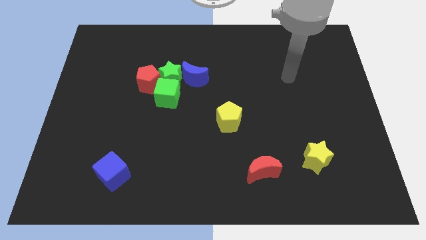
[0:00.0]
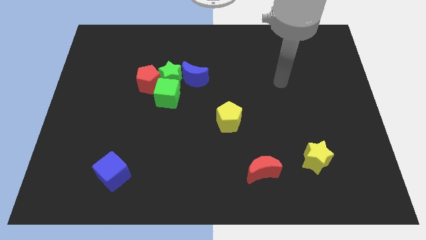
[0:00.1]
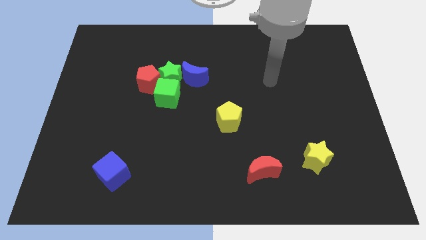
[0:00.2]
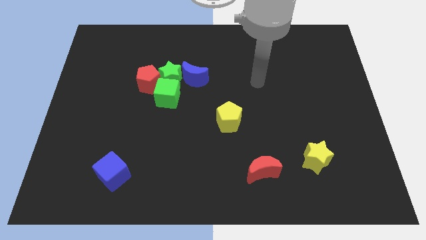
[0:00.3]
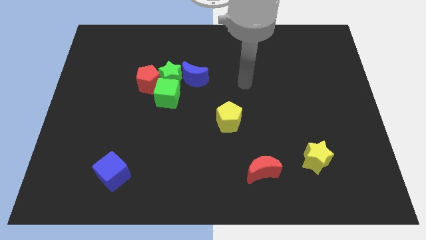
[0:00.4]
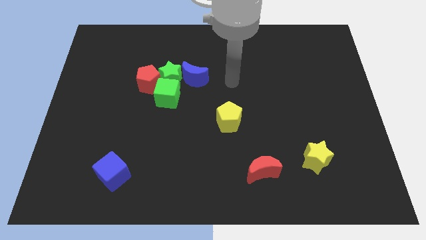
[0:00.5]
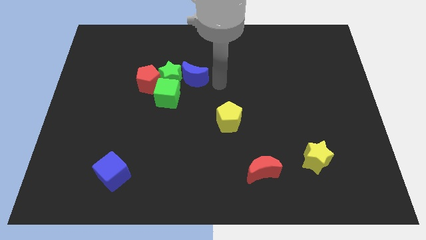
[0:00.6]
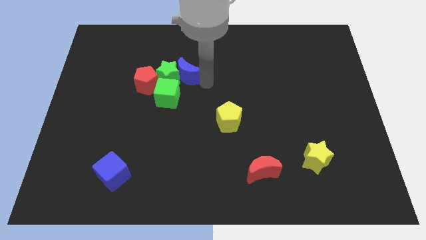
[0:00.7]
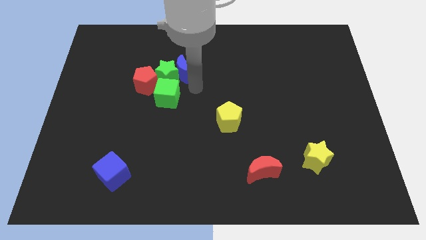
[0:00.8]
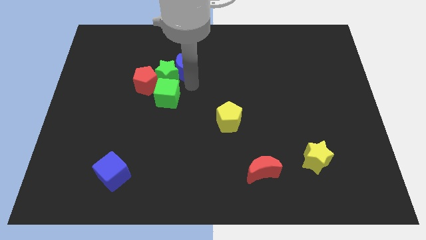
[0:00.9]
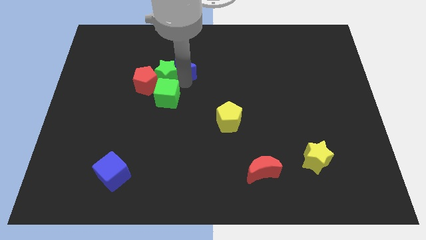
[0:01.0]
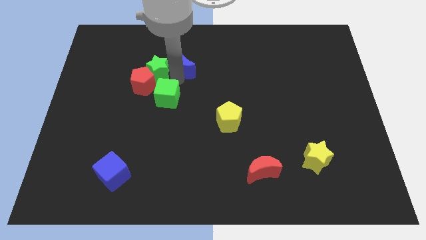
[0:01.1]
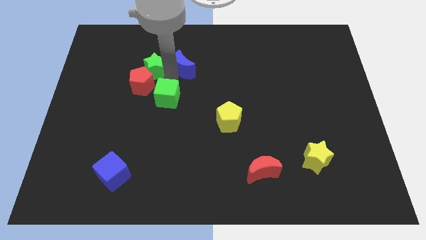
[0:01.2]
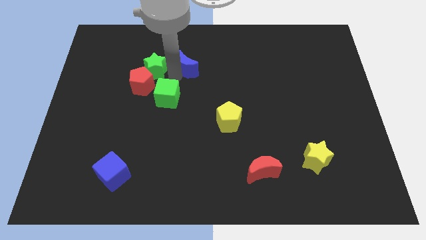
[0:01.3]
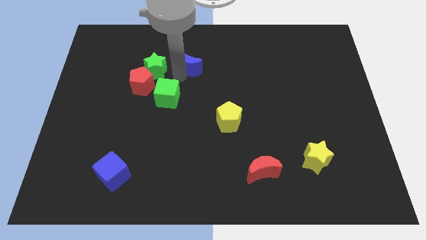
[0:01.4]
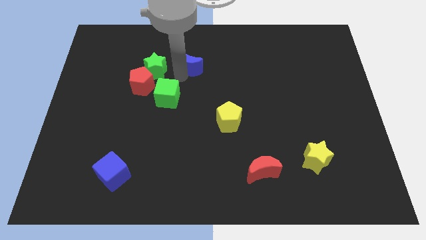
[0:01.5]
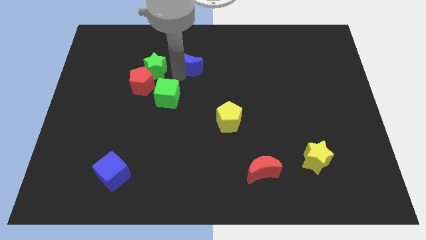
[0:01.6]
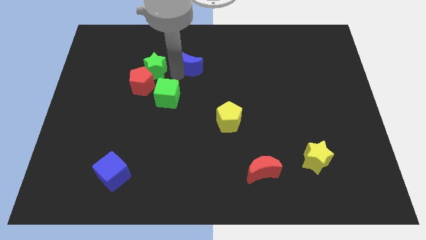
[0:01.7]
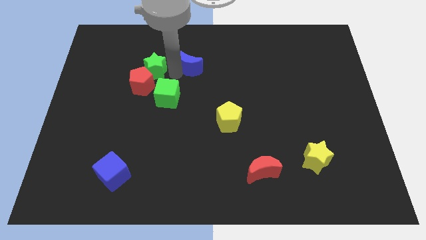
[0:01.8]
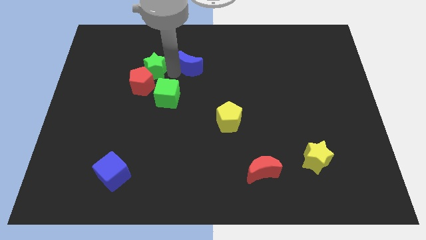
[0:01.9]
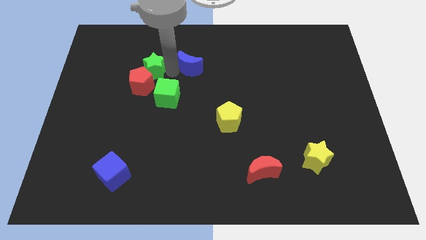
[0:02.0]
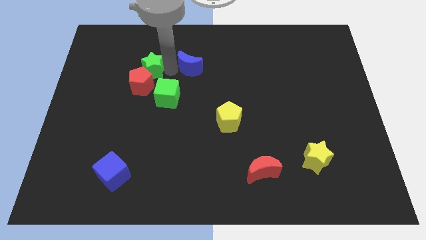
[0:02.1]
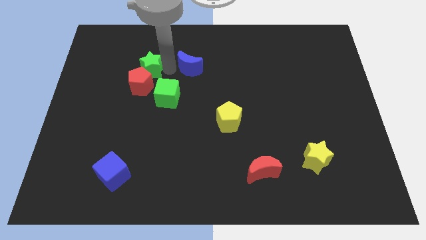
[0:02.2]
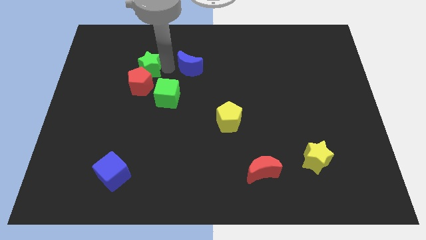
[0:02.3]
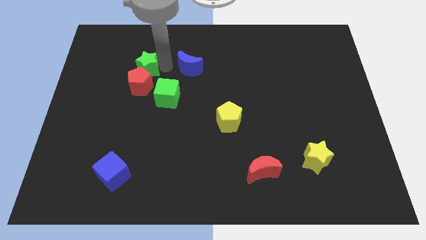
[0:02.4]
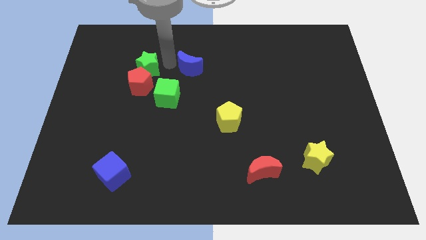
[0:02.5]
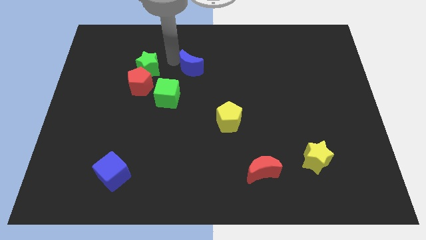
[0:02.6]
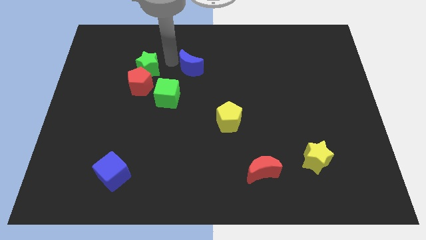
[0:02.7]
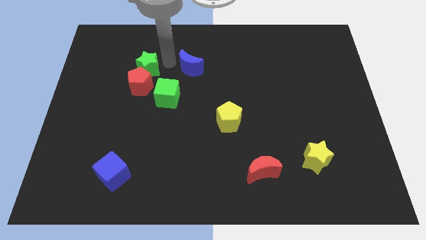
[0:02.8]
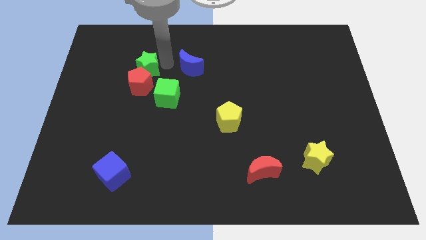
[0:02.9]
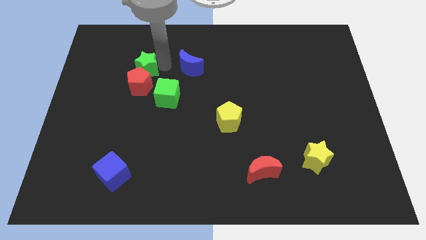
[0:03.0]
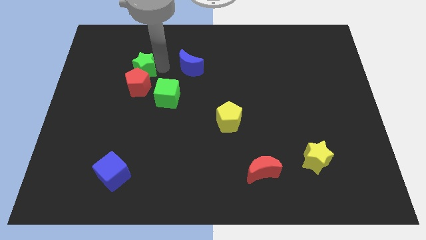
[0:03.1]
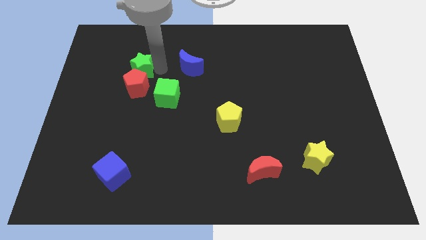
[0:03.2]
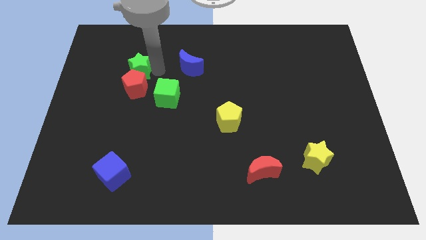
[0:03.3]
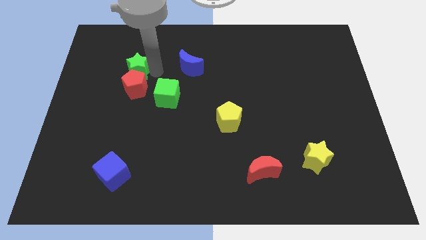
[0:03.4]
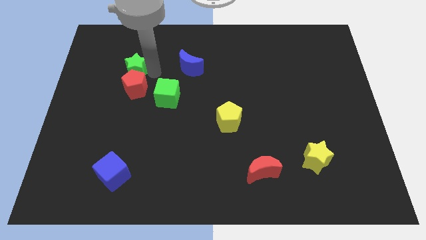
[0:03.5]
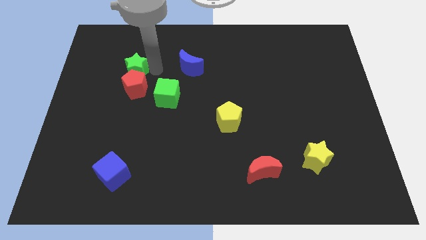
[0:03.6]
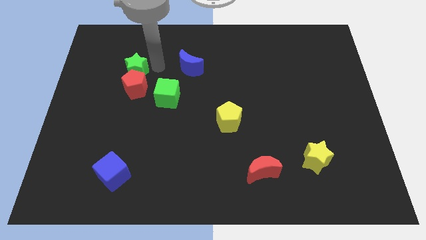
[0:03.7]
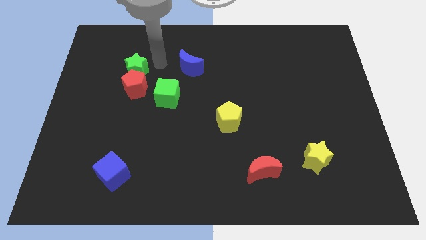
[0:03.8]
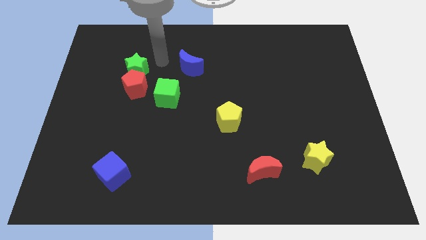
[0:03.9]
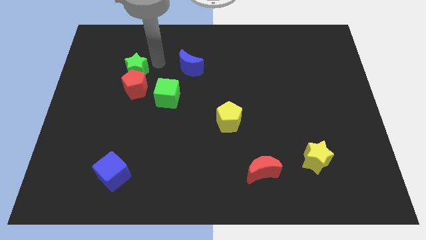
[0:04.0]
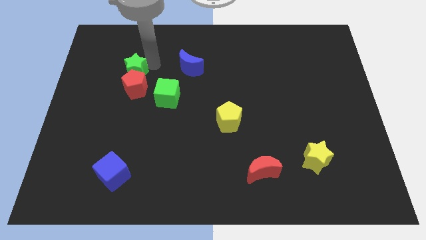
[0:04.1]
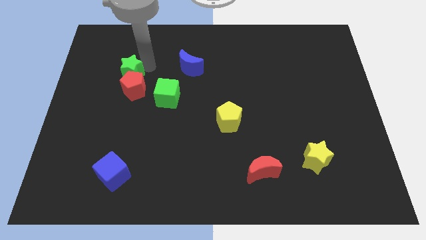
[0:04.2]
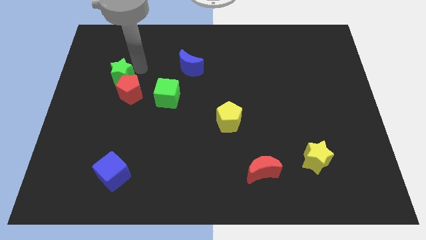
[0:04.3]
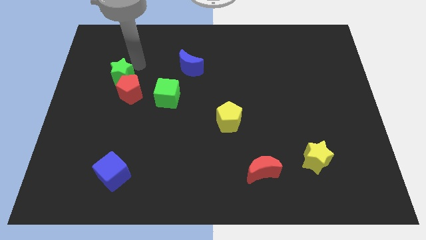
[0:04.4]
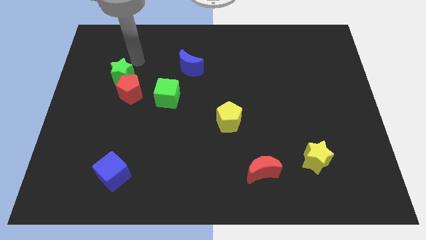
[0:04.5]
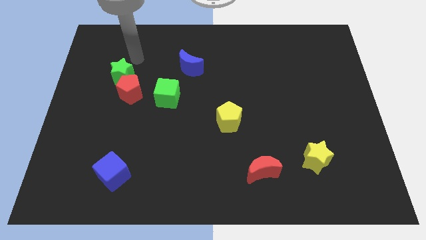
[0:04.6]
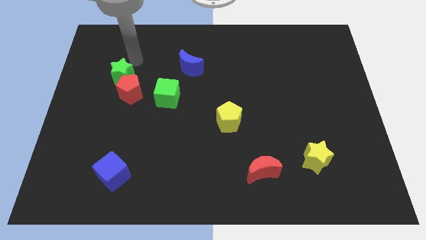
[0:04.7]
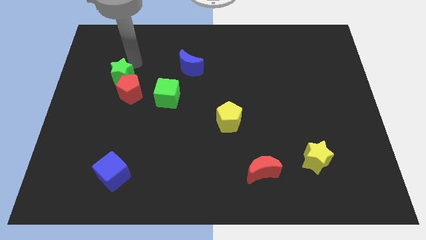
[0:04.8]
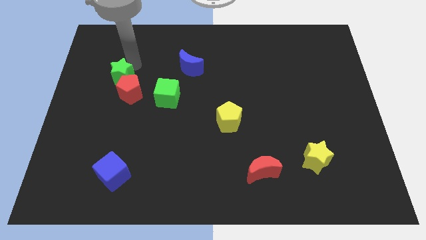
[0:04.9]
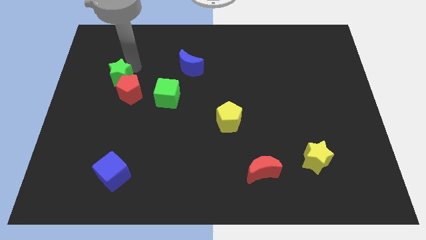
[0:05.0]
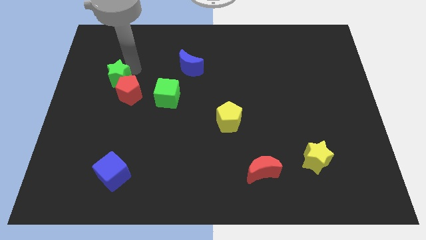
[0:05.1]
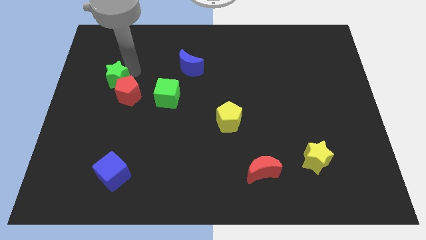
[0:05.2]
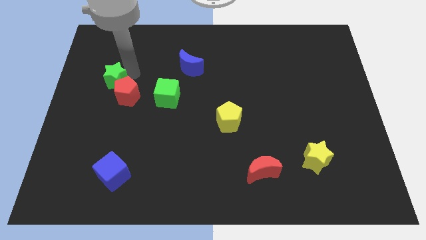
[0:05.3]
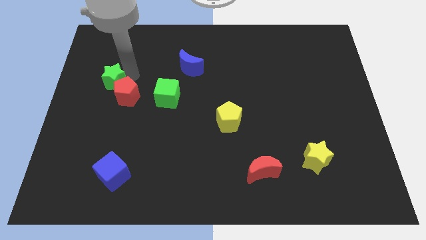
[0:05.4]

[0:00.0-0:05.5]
push the green star slightly down and to the left diagonally

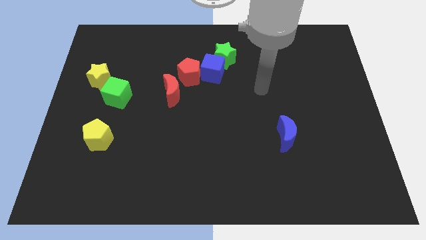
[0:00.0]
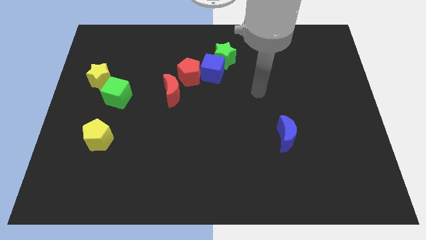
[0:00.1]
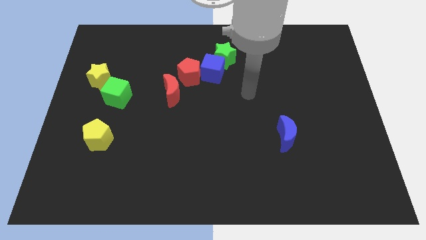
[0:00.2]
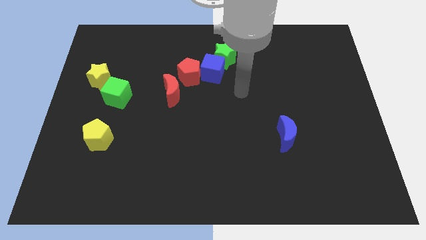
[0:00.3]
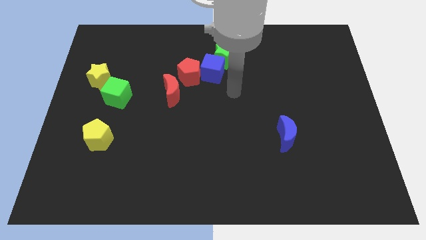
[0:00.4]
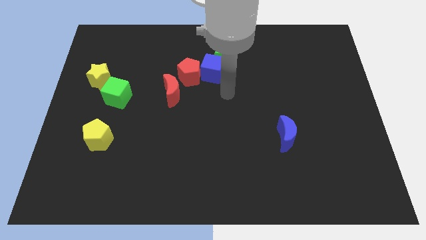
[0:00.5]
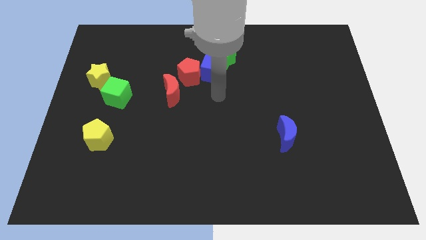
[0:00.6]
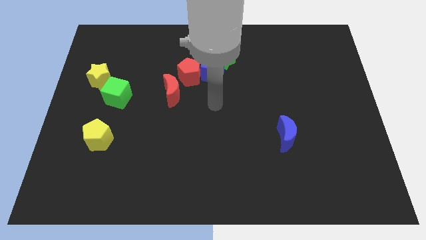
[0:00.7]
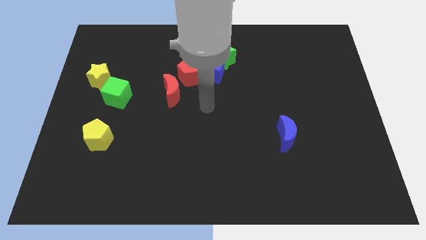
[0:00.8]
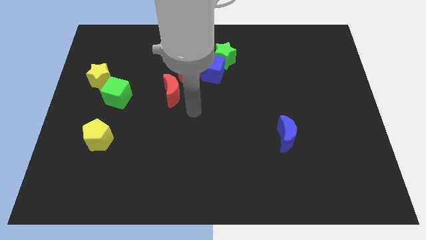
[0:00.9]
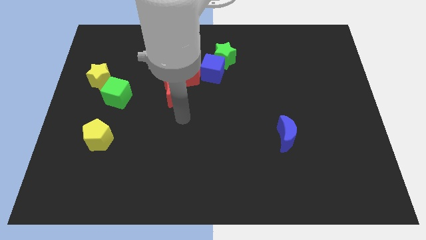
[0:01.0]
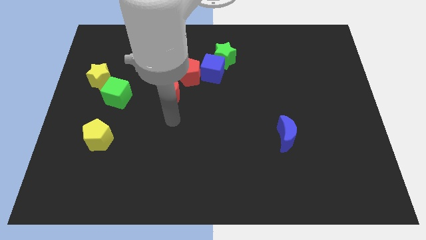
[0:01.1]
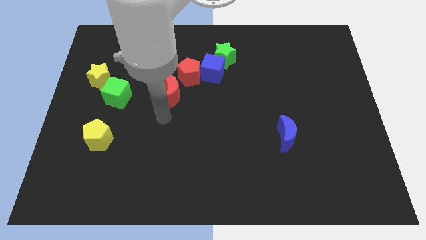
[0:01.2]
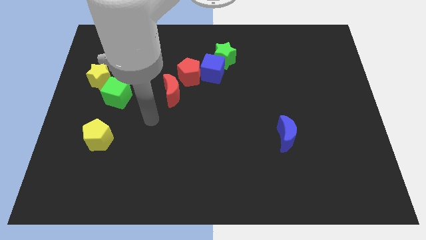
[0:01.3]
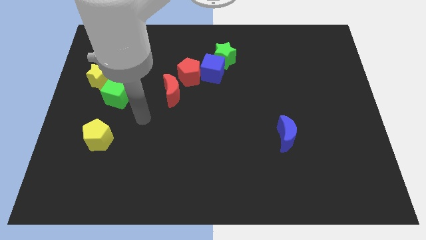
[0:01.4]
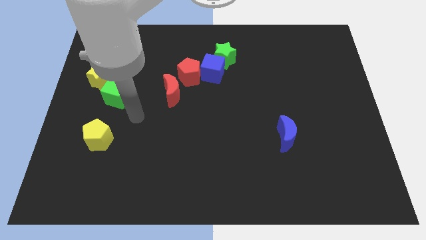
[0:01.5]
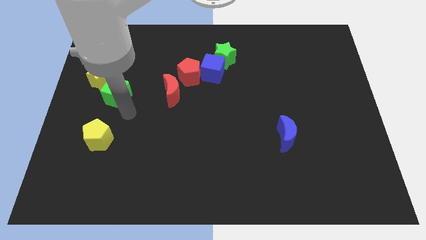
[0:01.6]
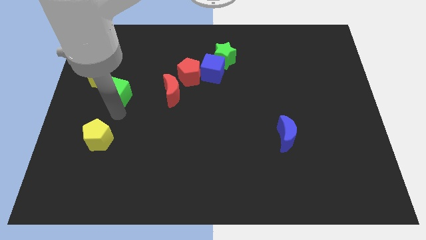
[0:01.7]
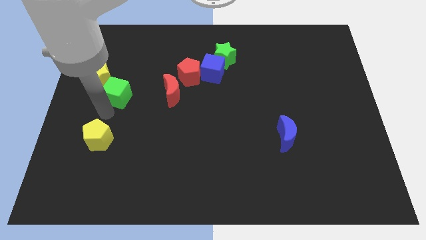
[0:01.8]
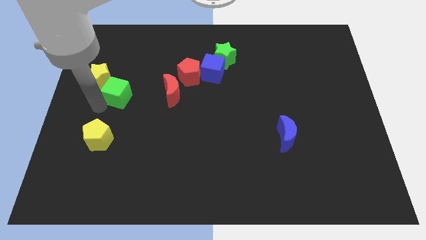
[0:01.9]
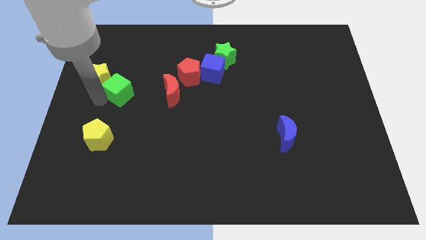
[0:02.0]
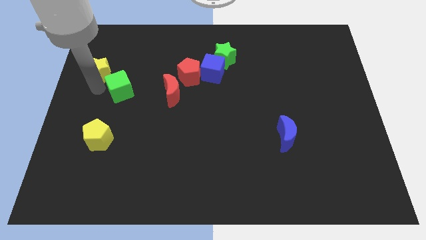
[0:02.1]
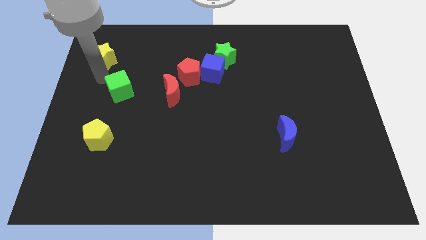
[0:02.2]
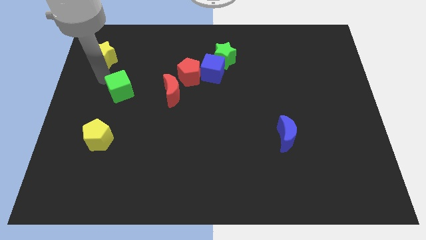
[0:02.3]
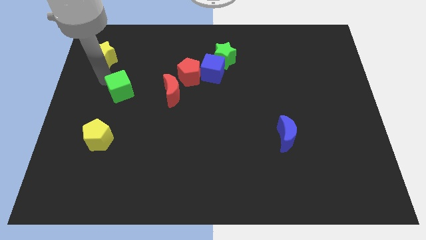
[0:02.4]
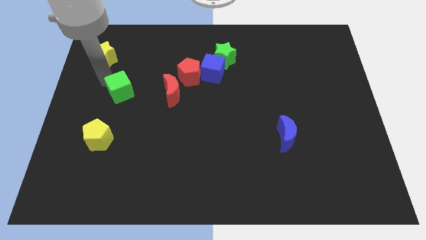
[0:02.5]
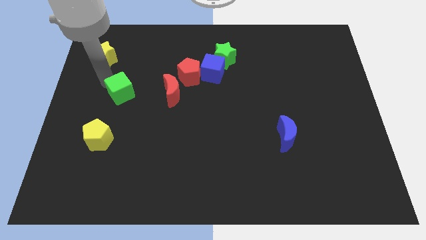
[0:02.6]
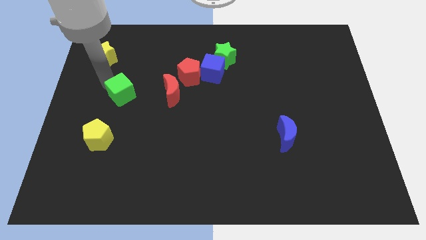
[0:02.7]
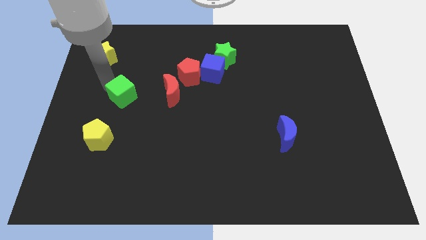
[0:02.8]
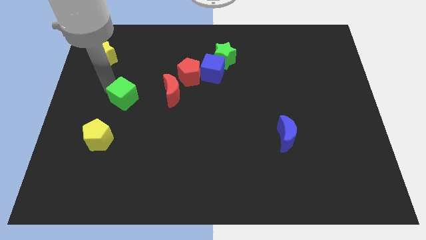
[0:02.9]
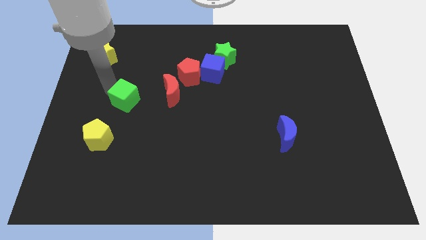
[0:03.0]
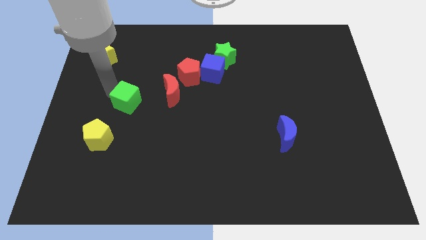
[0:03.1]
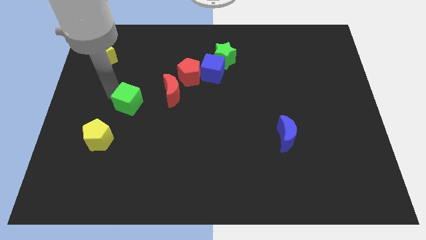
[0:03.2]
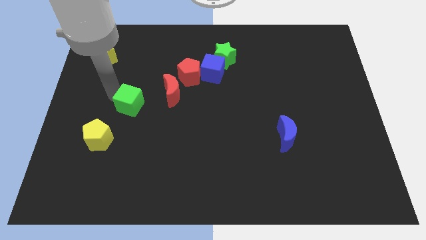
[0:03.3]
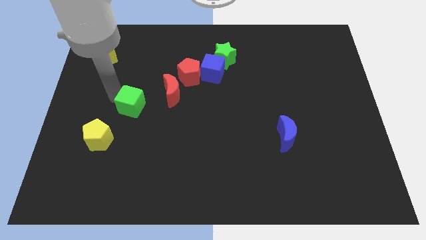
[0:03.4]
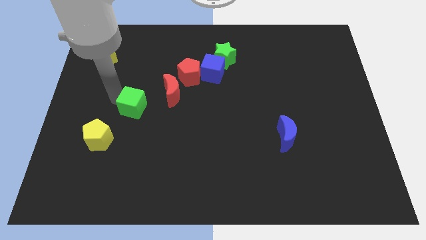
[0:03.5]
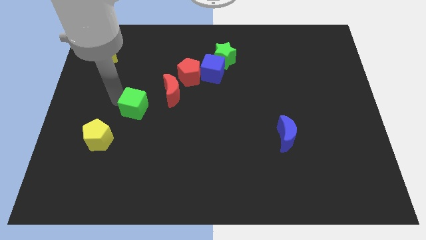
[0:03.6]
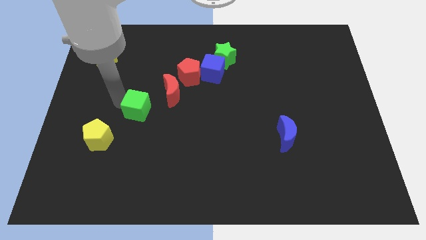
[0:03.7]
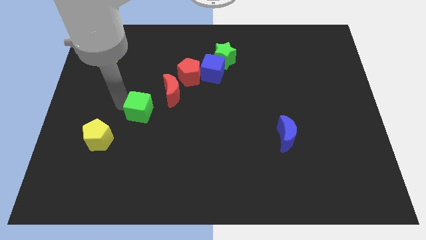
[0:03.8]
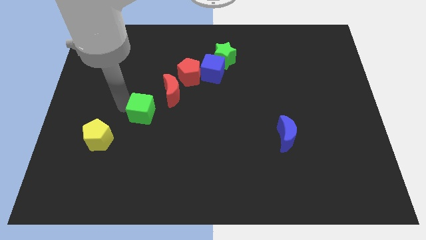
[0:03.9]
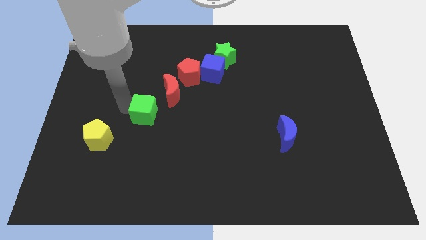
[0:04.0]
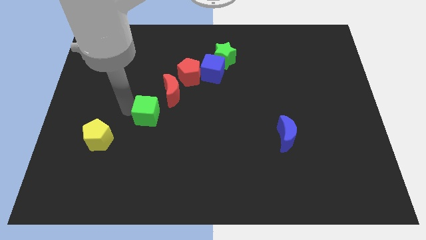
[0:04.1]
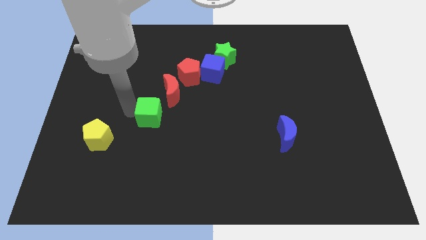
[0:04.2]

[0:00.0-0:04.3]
slightly move the green cube to the right
